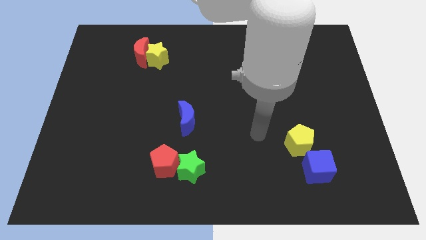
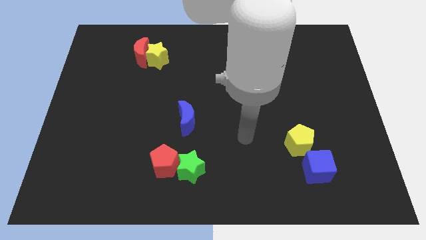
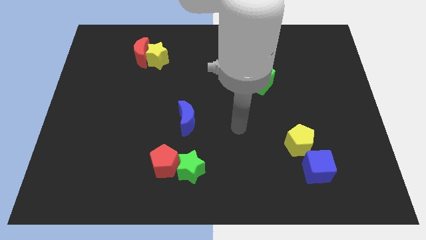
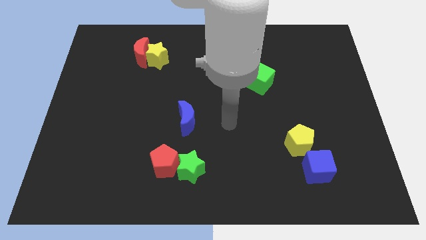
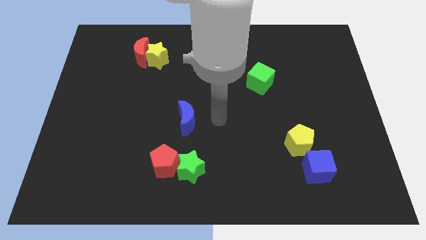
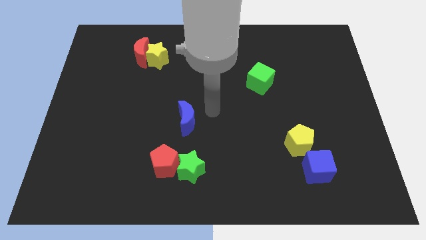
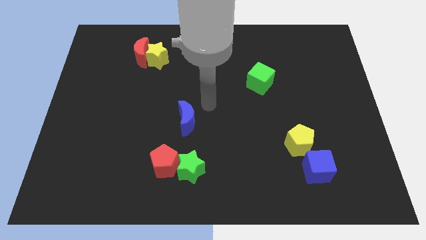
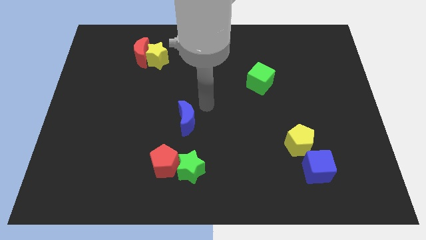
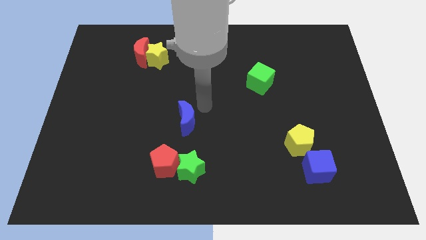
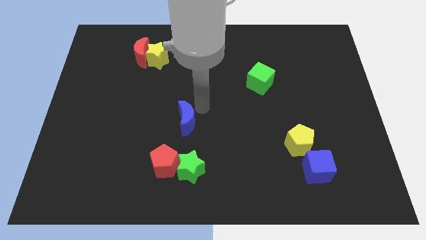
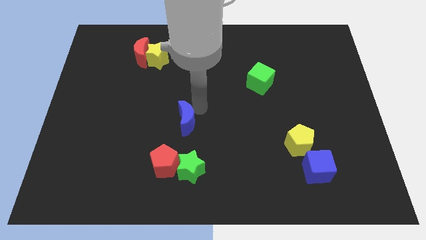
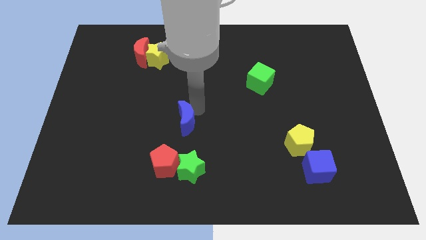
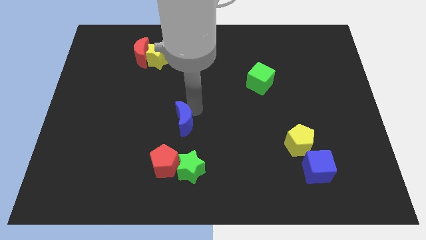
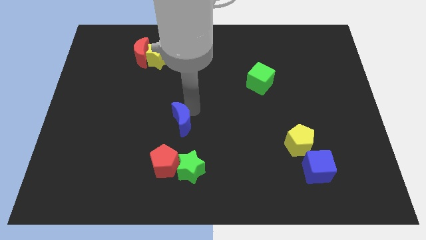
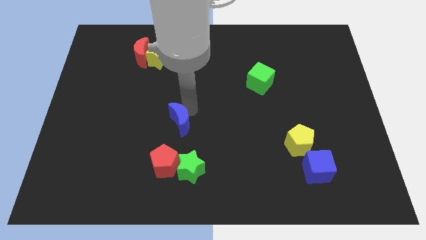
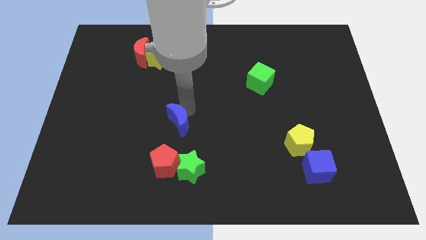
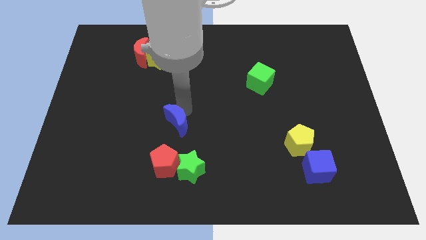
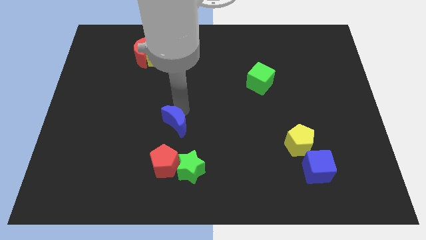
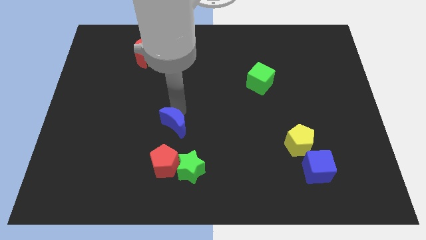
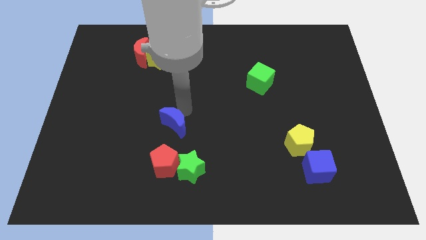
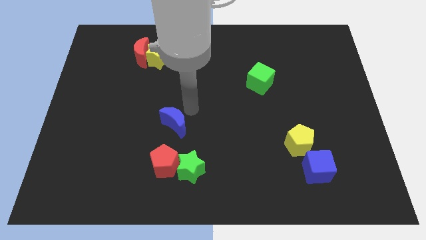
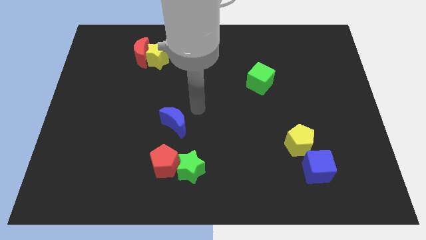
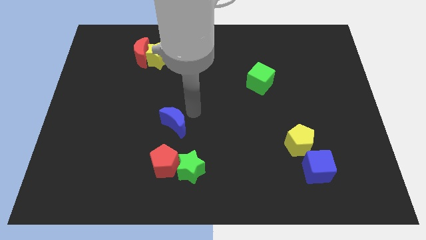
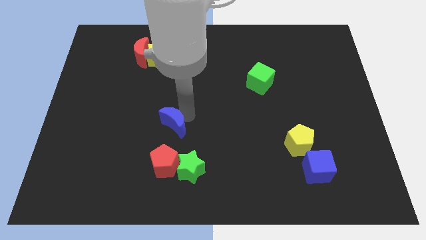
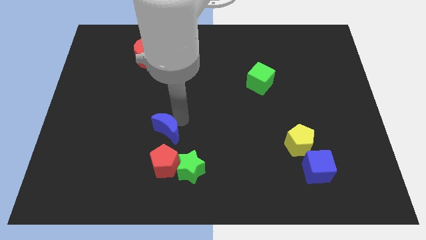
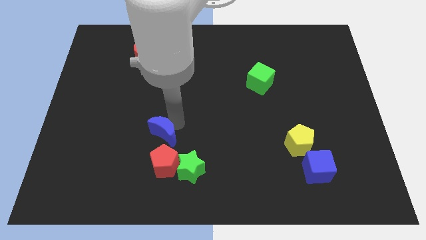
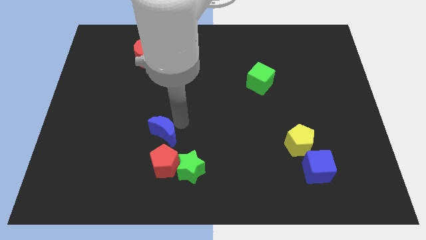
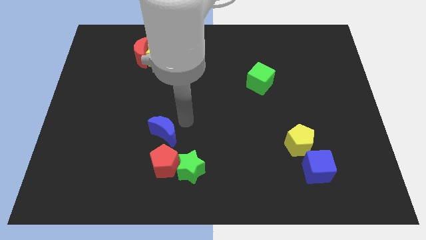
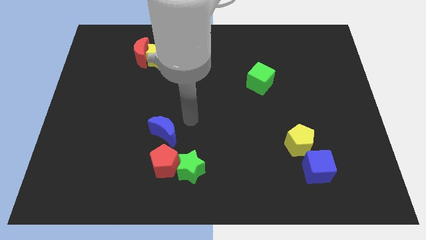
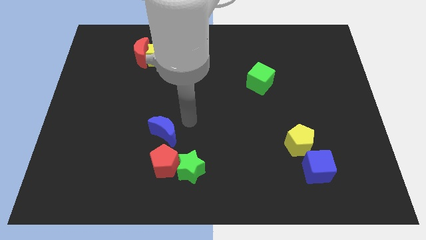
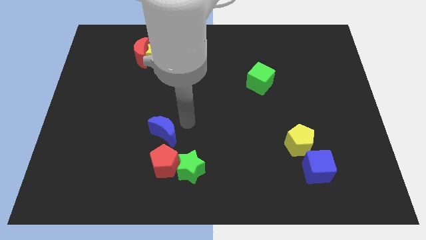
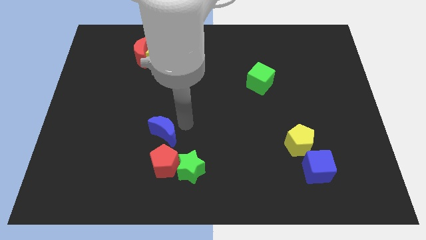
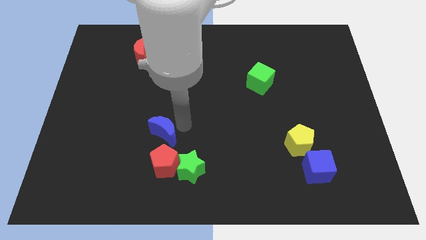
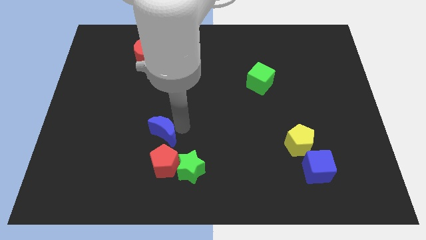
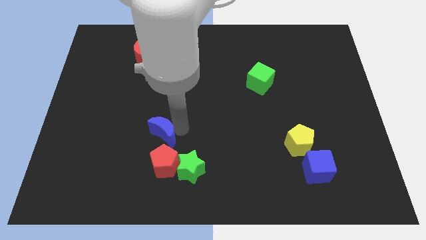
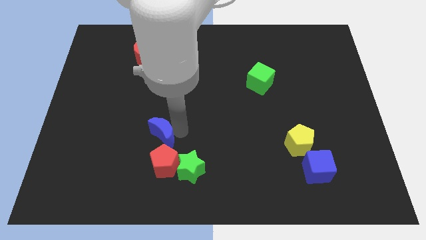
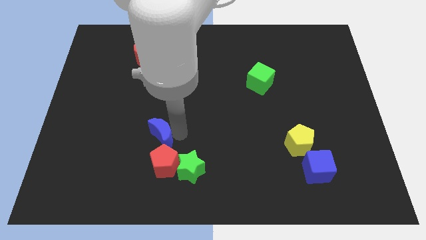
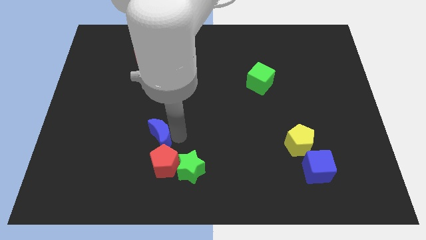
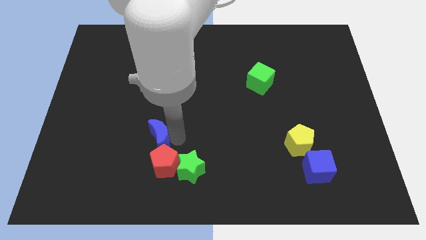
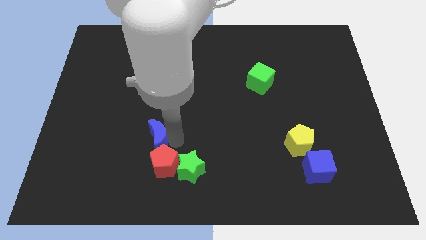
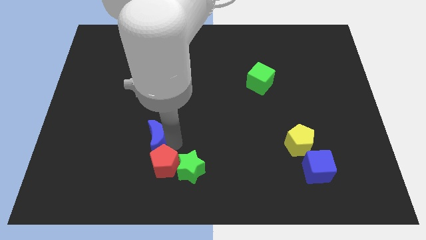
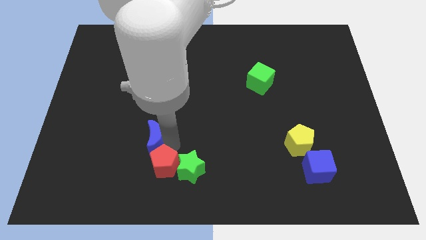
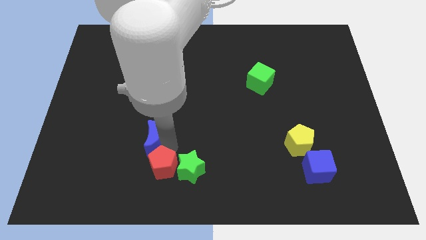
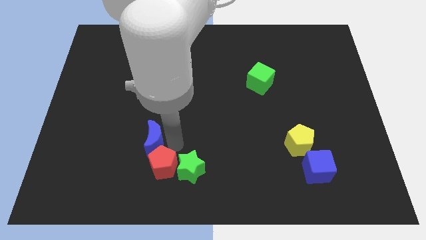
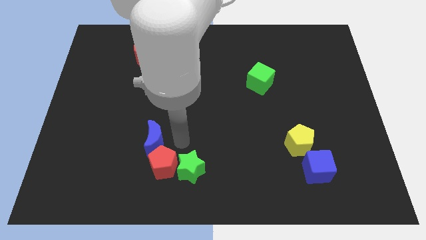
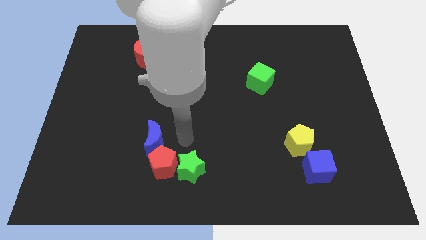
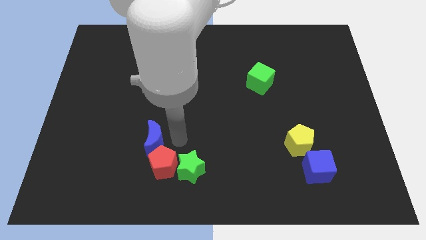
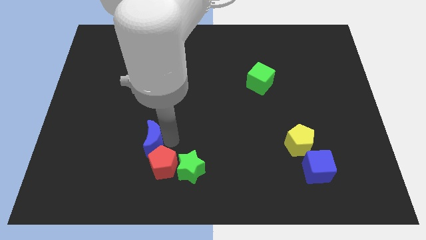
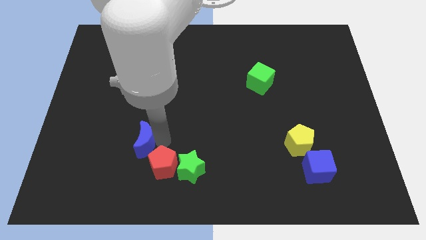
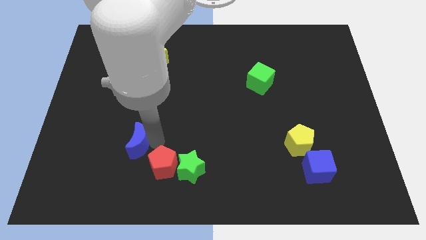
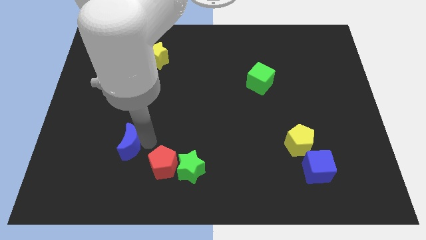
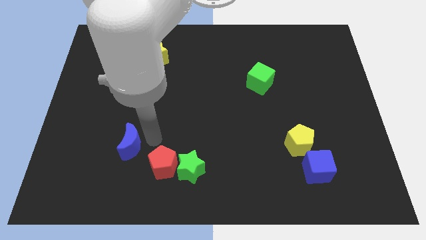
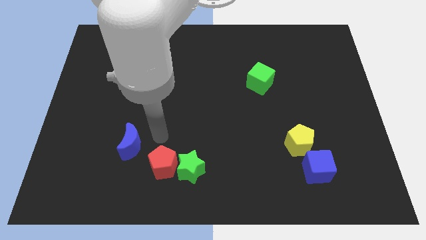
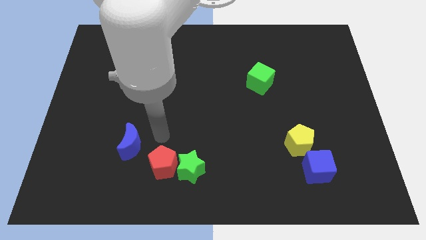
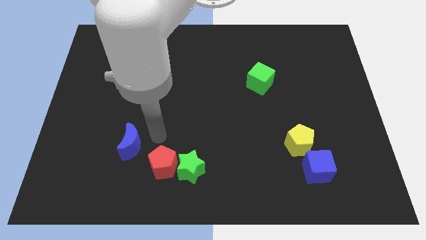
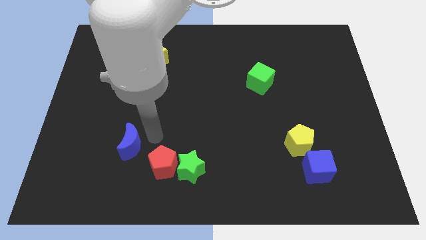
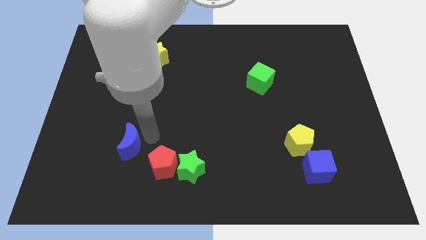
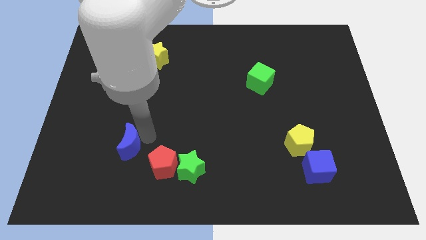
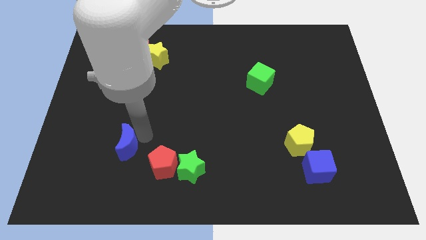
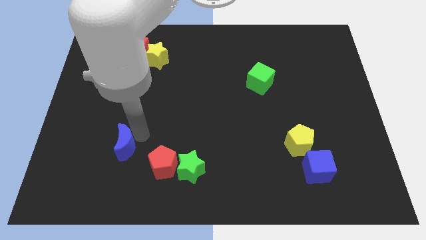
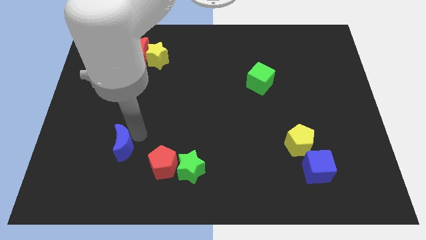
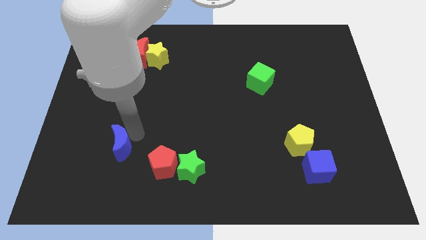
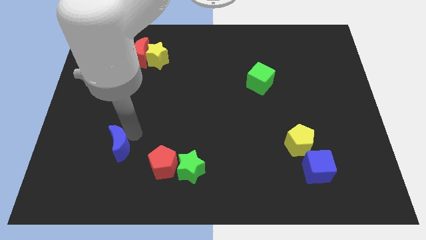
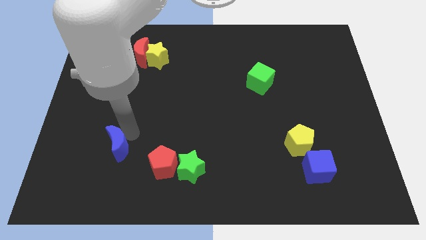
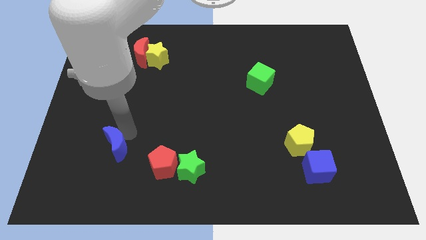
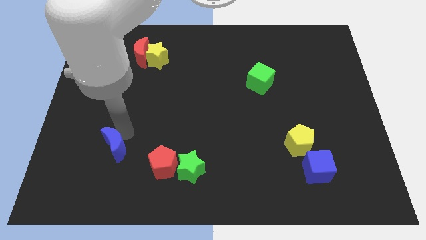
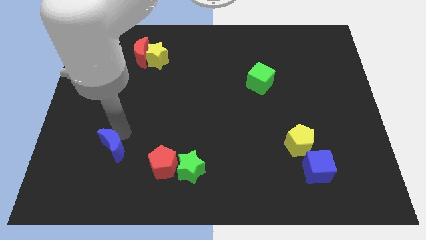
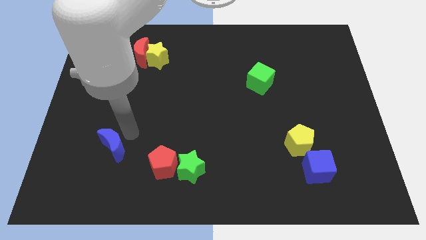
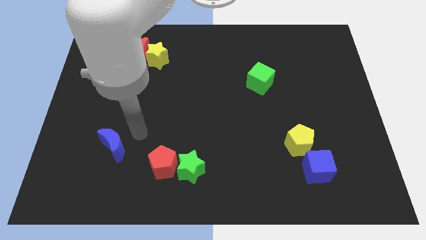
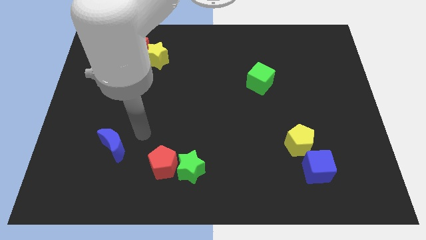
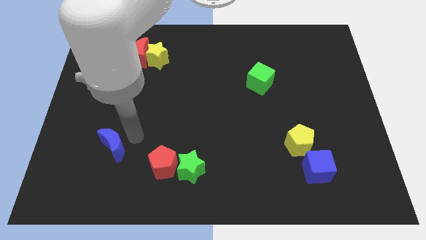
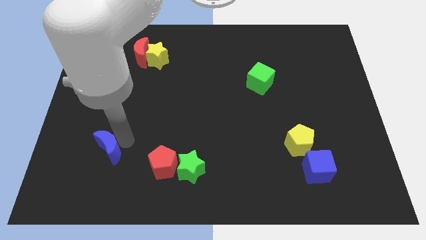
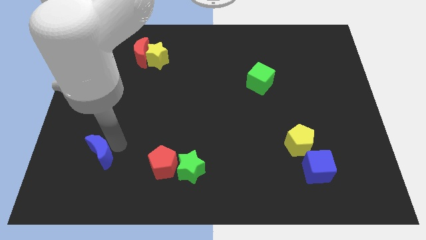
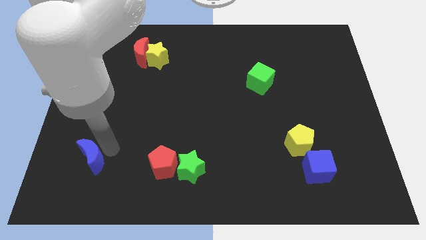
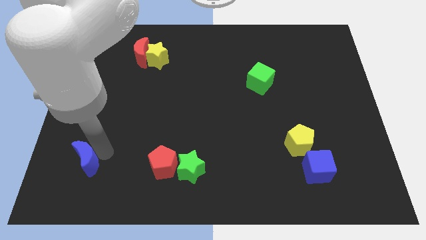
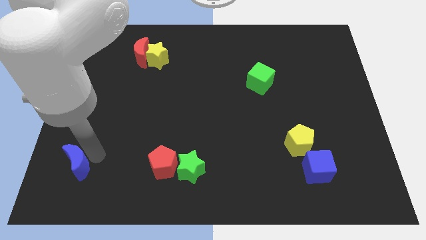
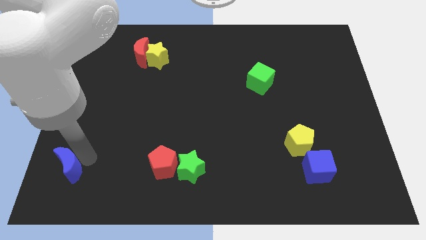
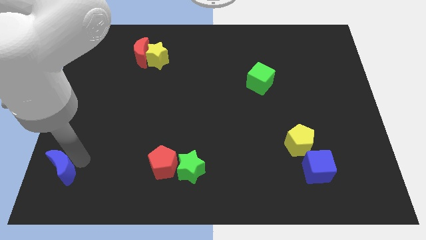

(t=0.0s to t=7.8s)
move the blue moon to the bottom left corner
